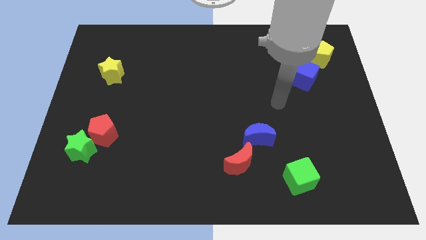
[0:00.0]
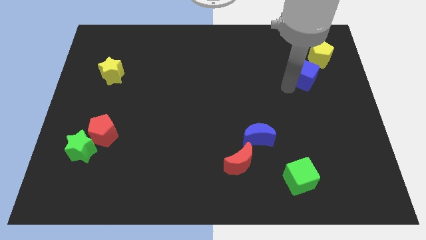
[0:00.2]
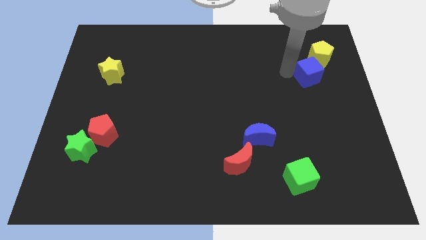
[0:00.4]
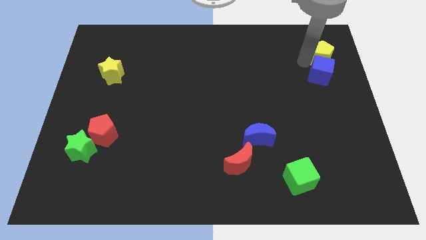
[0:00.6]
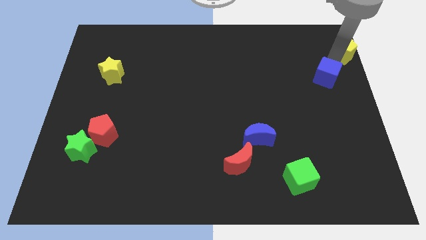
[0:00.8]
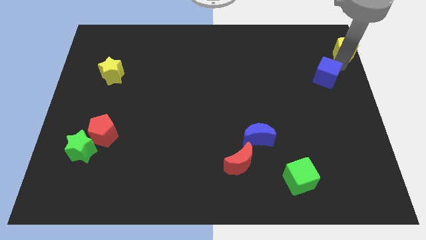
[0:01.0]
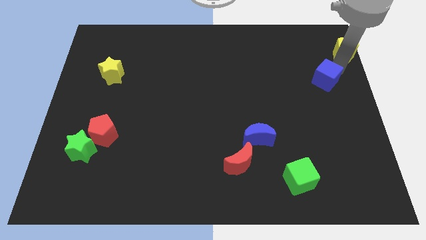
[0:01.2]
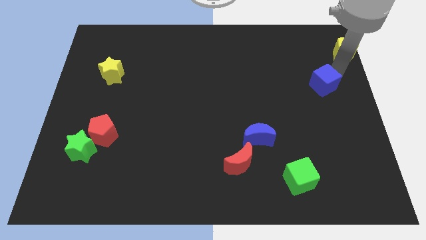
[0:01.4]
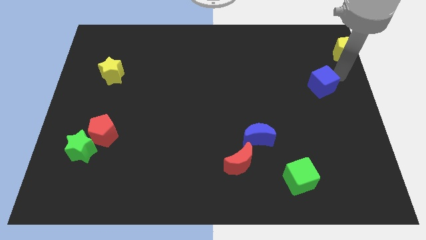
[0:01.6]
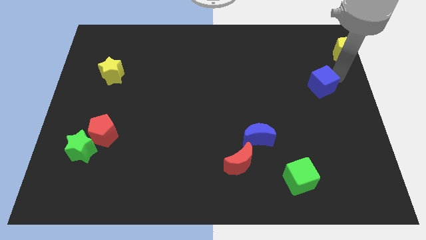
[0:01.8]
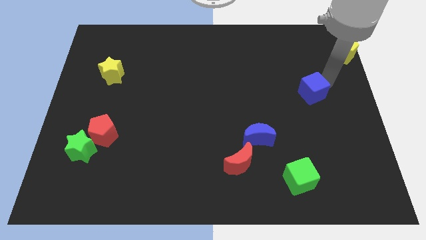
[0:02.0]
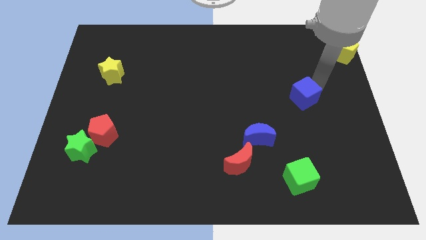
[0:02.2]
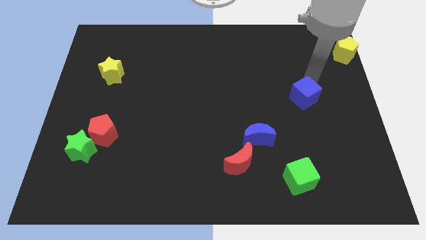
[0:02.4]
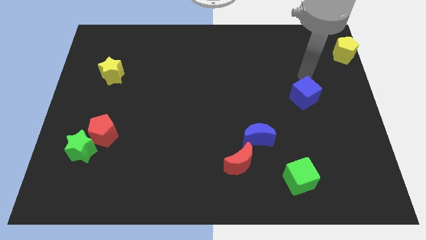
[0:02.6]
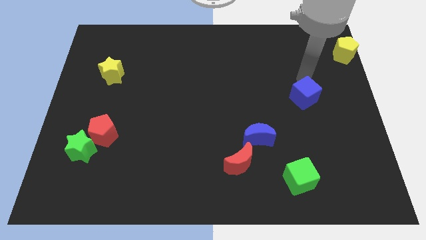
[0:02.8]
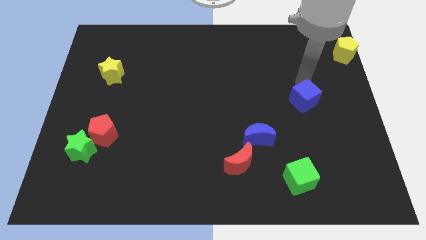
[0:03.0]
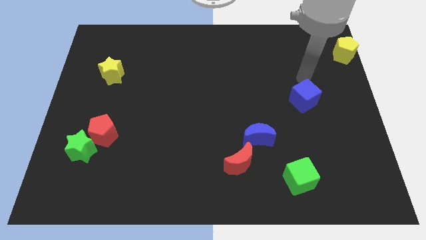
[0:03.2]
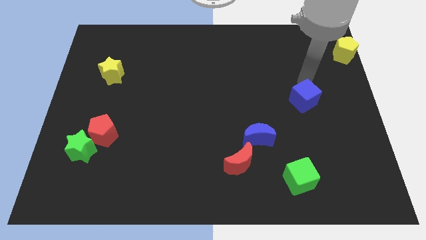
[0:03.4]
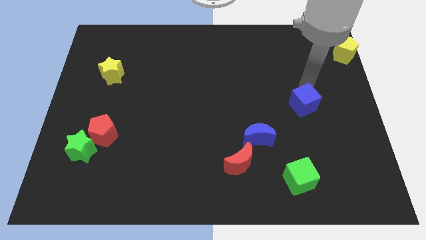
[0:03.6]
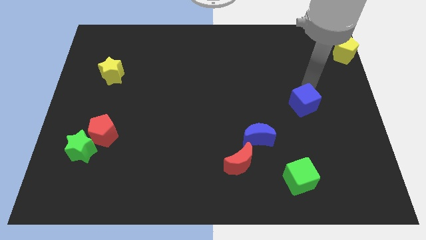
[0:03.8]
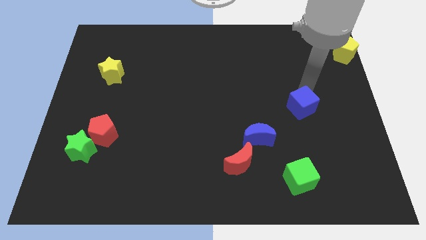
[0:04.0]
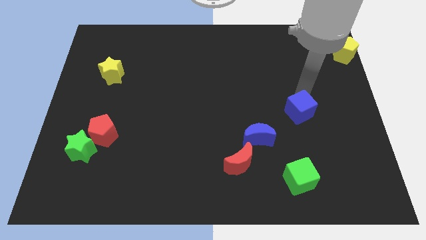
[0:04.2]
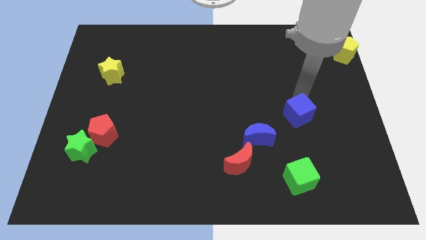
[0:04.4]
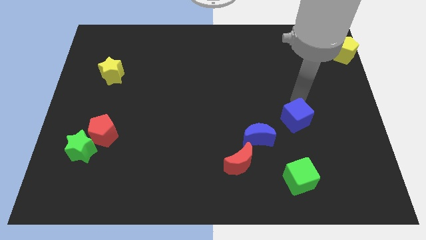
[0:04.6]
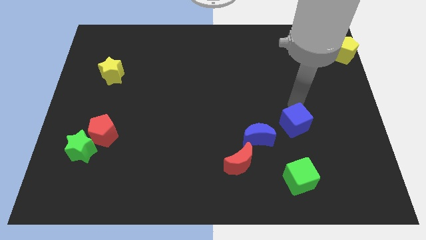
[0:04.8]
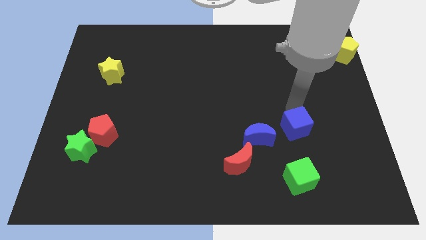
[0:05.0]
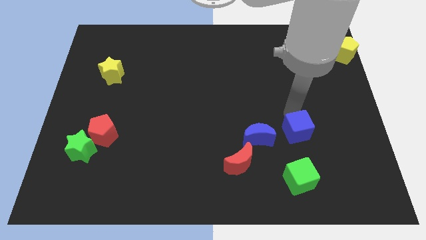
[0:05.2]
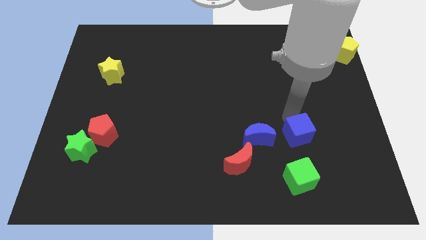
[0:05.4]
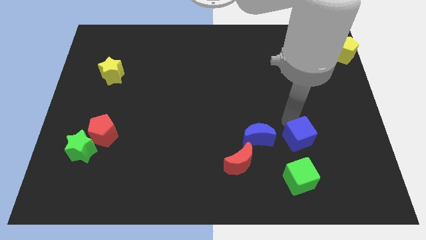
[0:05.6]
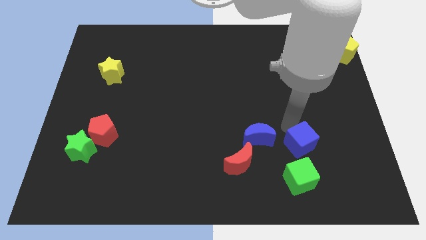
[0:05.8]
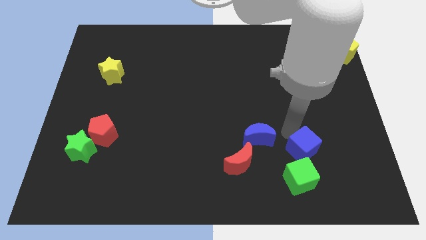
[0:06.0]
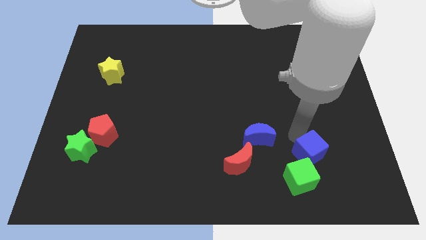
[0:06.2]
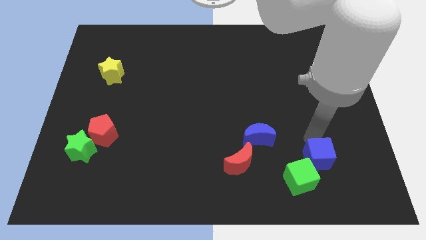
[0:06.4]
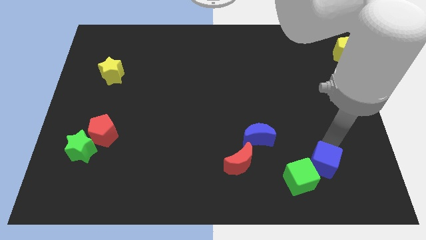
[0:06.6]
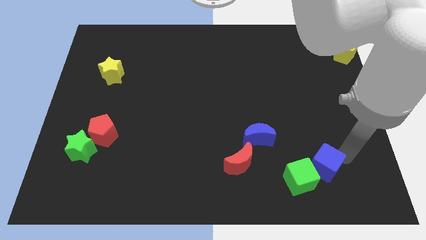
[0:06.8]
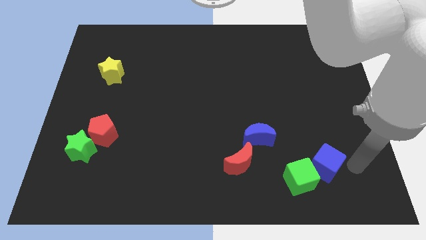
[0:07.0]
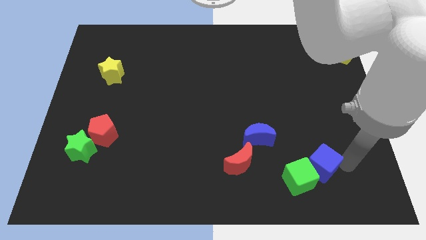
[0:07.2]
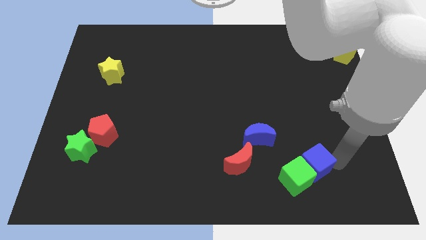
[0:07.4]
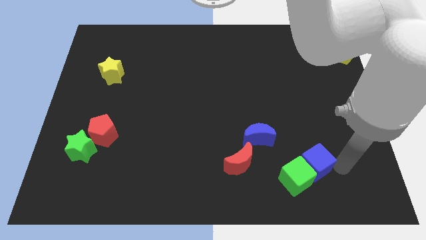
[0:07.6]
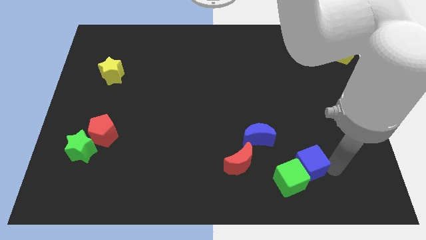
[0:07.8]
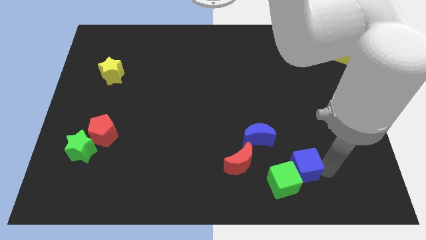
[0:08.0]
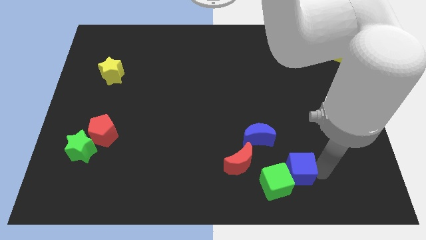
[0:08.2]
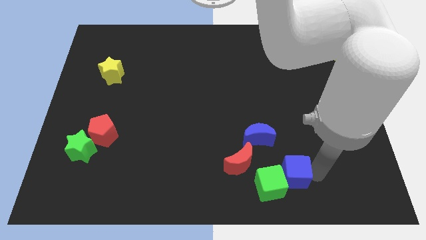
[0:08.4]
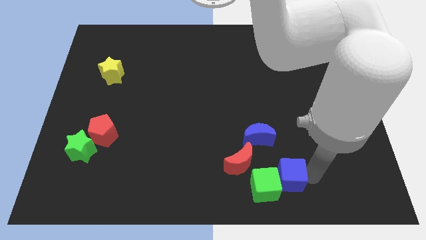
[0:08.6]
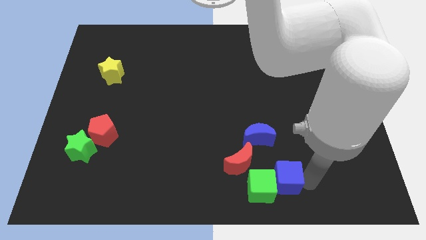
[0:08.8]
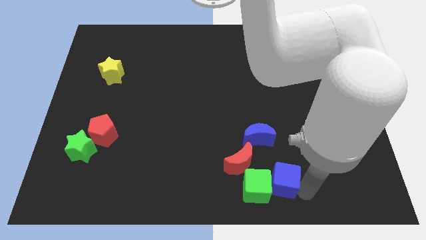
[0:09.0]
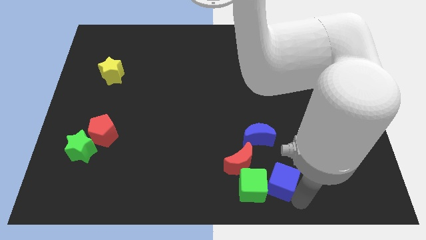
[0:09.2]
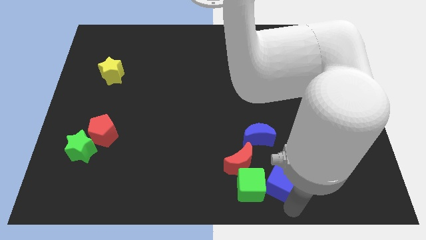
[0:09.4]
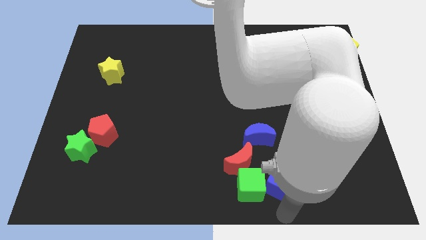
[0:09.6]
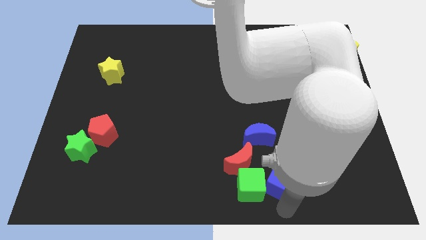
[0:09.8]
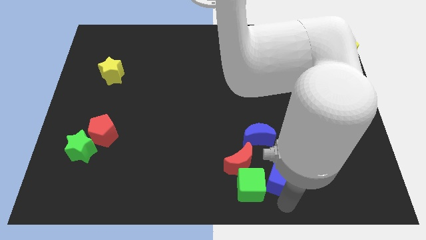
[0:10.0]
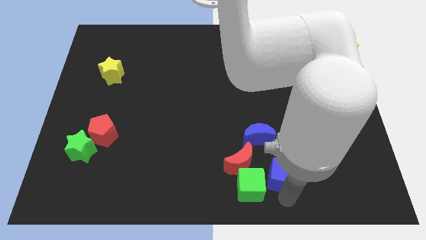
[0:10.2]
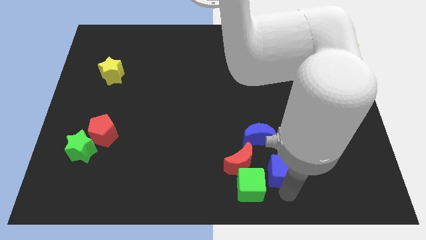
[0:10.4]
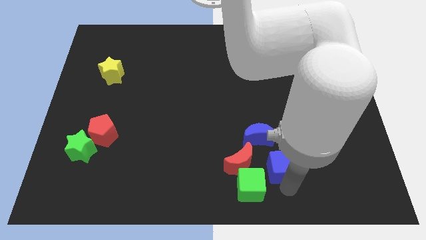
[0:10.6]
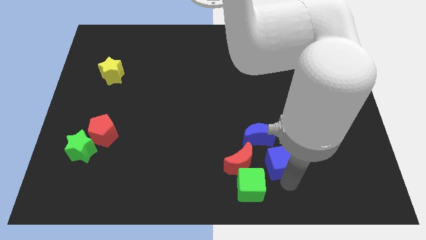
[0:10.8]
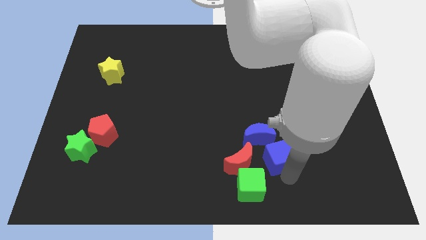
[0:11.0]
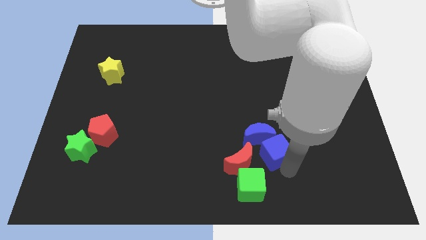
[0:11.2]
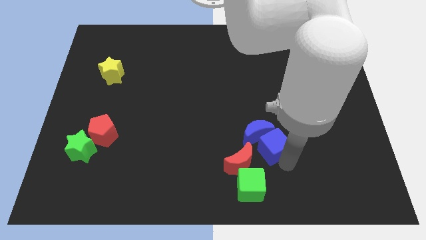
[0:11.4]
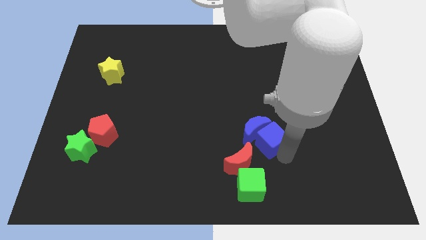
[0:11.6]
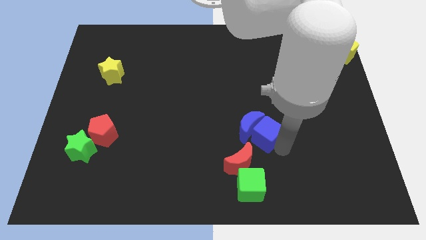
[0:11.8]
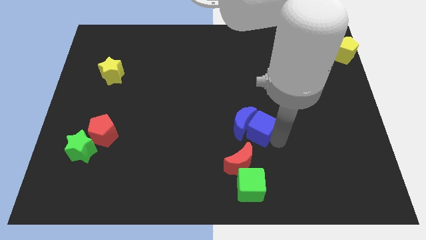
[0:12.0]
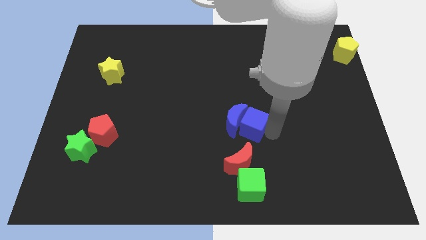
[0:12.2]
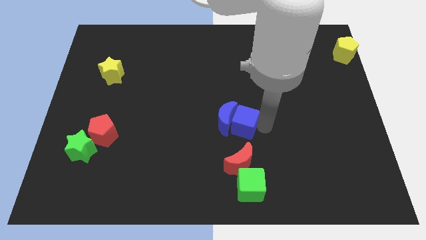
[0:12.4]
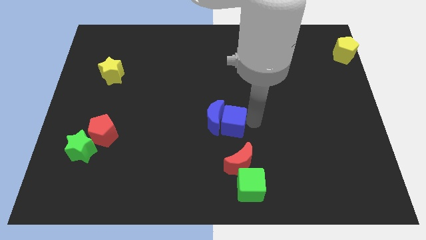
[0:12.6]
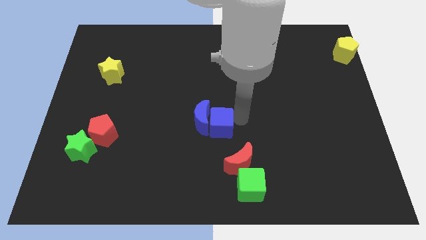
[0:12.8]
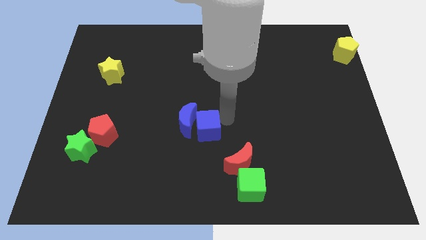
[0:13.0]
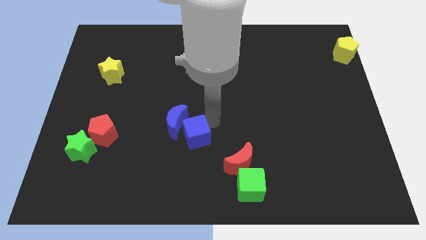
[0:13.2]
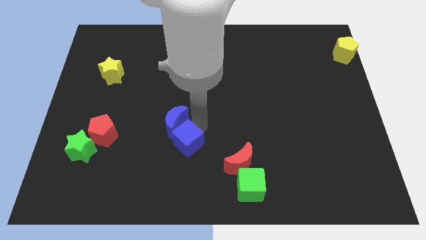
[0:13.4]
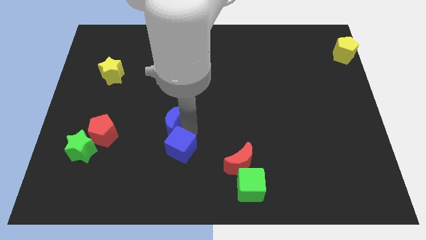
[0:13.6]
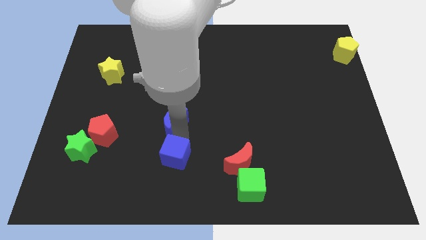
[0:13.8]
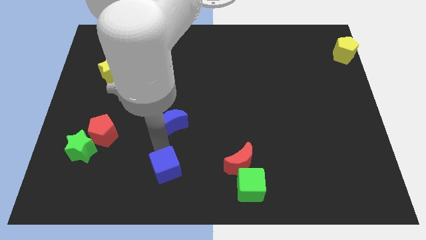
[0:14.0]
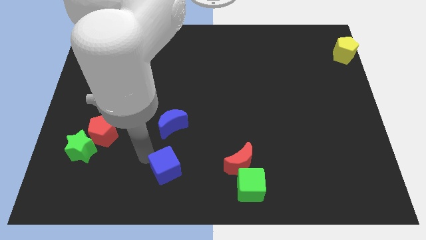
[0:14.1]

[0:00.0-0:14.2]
push the blue cube to the bottom
